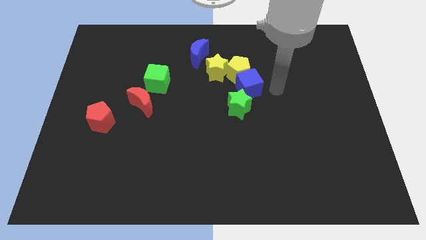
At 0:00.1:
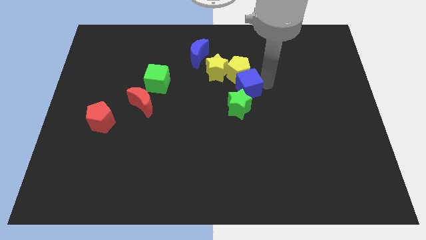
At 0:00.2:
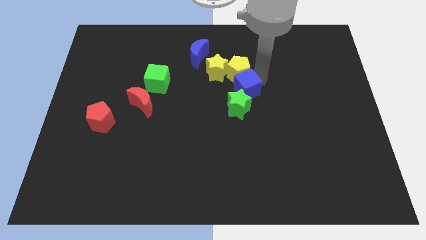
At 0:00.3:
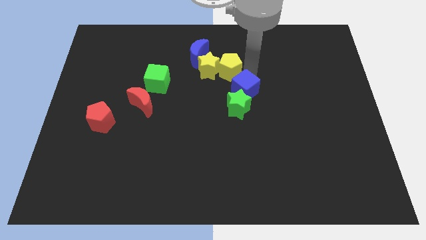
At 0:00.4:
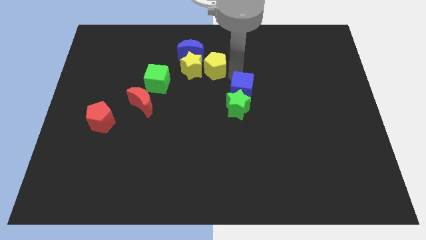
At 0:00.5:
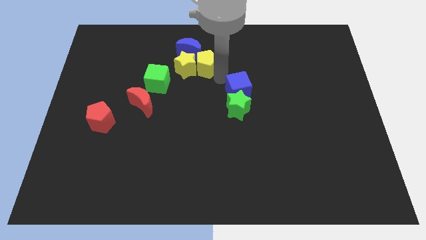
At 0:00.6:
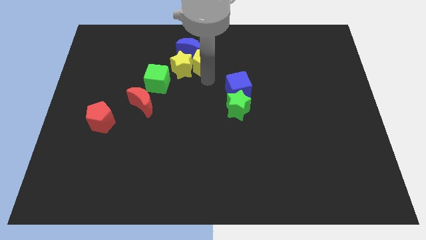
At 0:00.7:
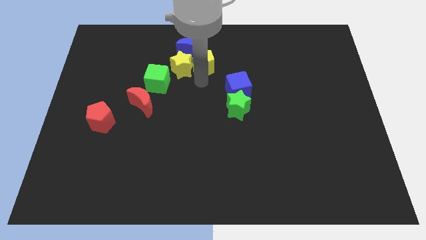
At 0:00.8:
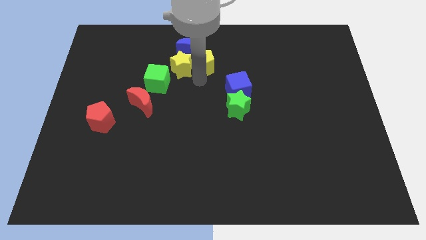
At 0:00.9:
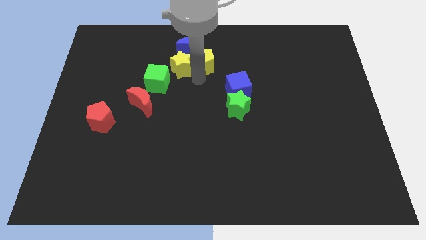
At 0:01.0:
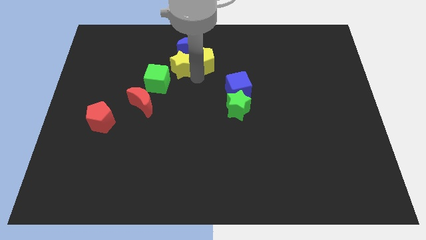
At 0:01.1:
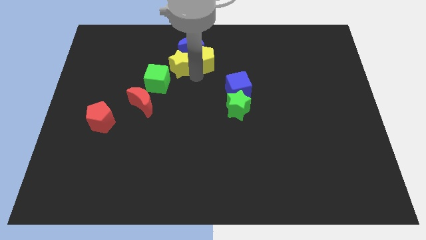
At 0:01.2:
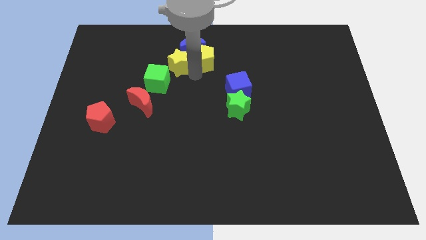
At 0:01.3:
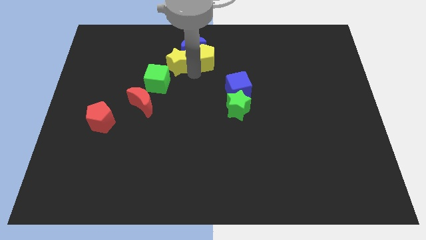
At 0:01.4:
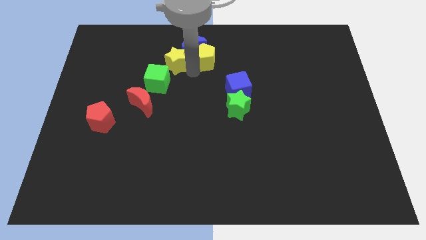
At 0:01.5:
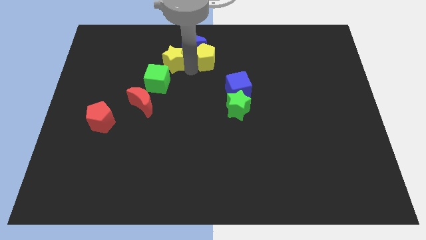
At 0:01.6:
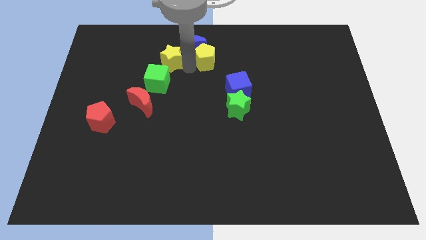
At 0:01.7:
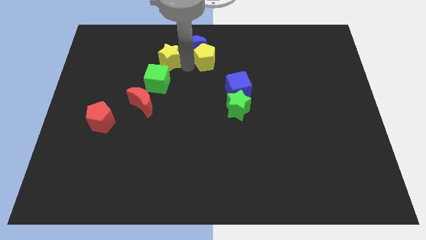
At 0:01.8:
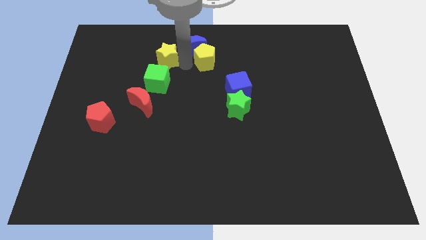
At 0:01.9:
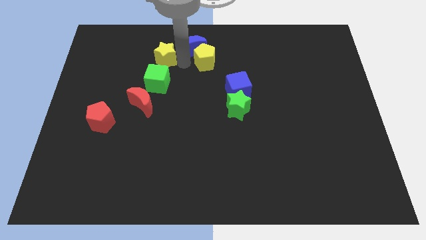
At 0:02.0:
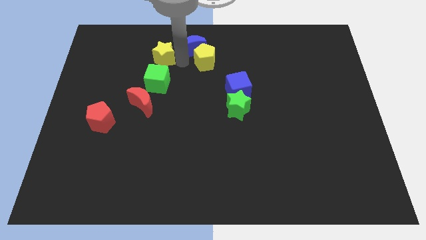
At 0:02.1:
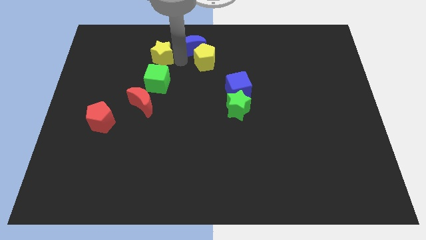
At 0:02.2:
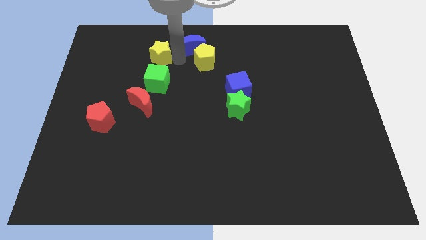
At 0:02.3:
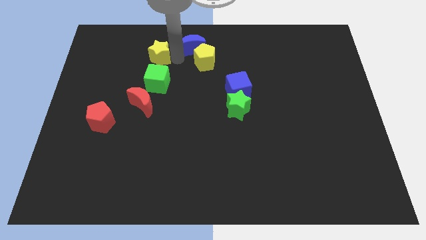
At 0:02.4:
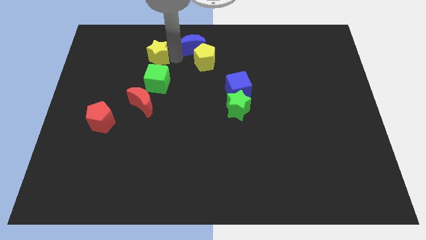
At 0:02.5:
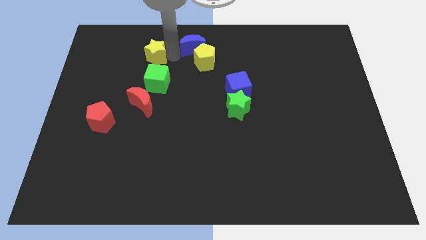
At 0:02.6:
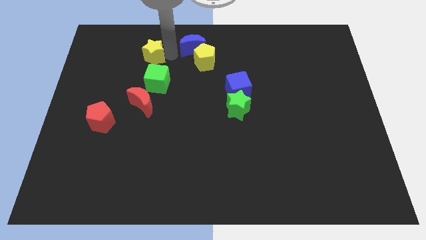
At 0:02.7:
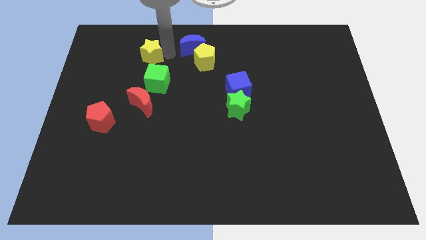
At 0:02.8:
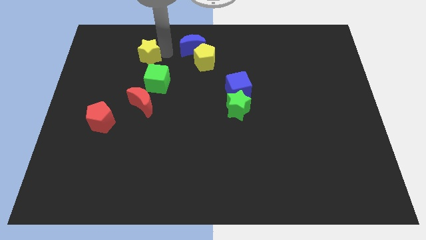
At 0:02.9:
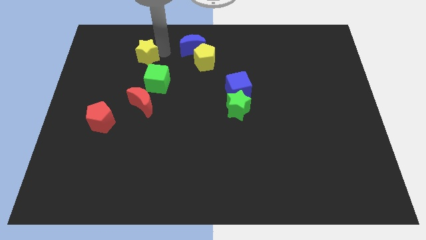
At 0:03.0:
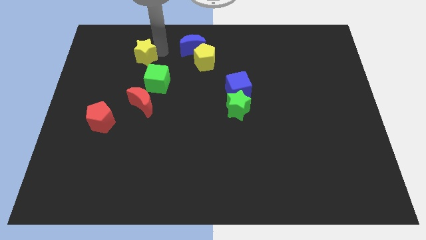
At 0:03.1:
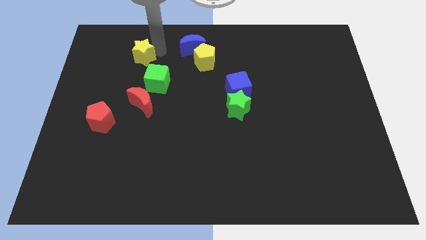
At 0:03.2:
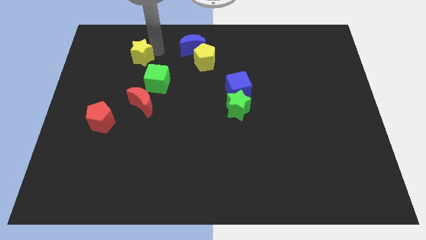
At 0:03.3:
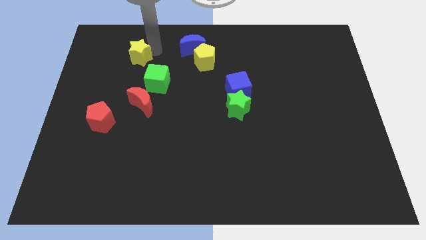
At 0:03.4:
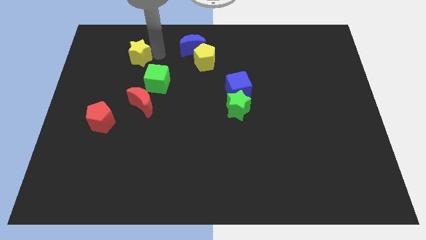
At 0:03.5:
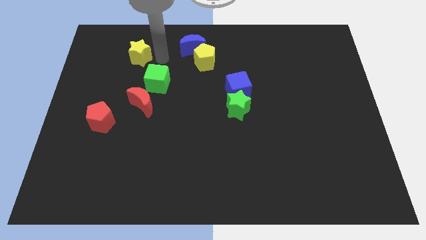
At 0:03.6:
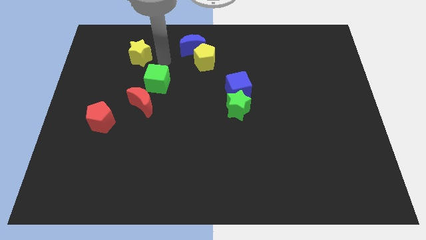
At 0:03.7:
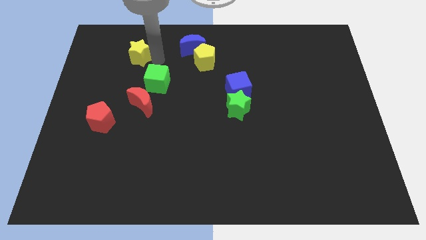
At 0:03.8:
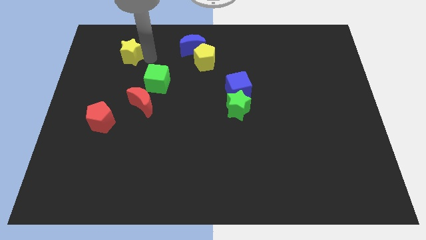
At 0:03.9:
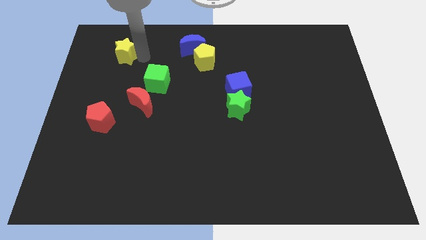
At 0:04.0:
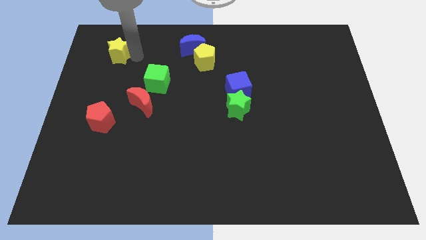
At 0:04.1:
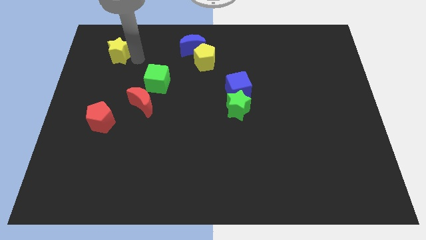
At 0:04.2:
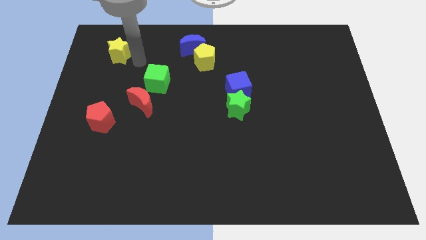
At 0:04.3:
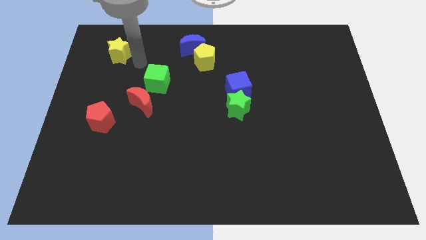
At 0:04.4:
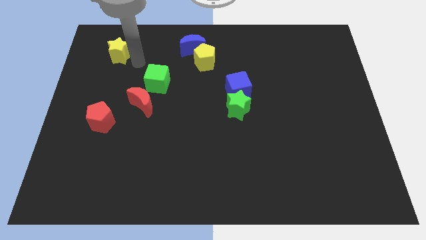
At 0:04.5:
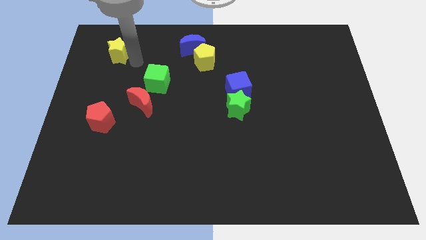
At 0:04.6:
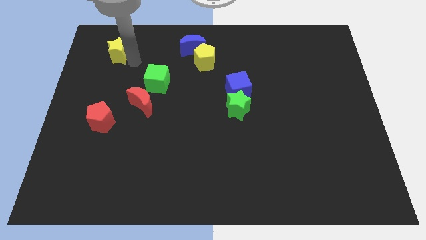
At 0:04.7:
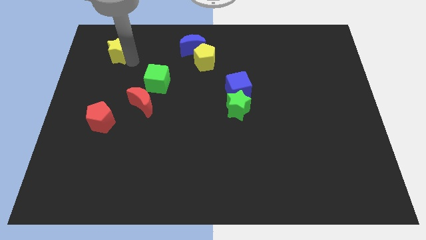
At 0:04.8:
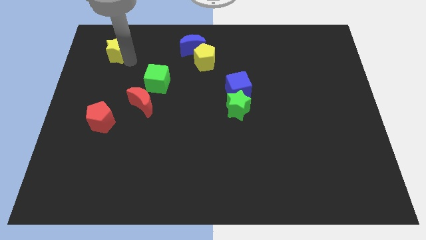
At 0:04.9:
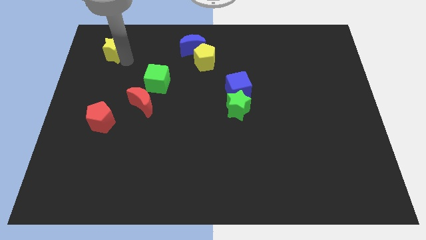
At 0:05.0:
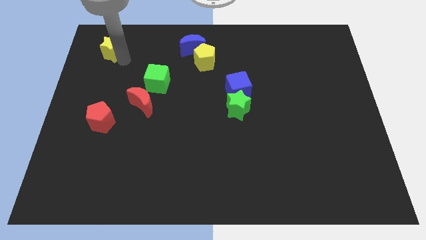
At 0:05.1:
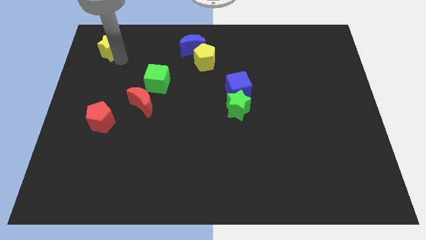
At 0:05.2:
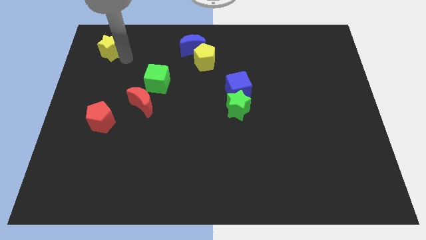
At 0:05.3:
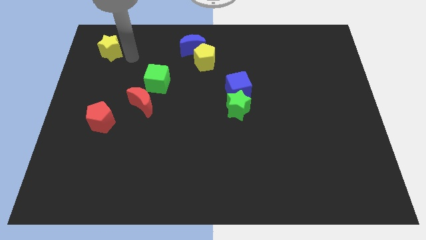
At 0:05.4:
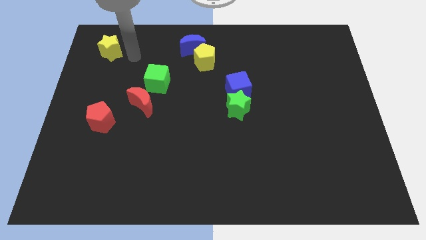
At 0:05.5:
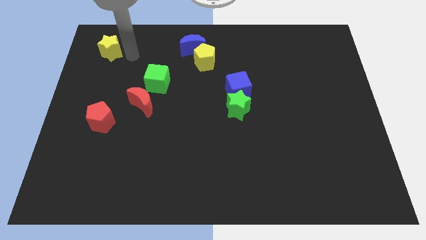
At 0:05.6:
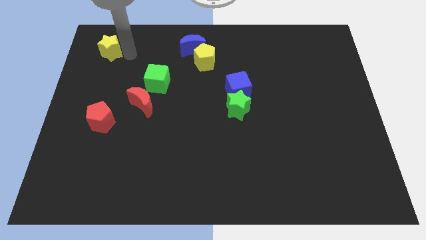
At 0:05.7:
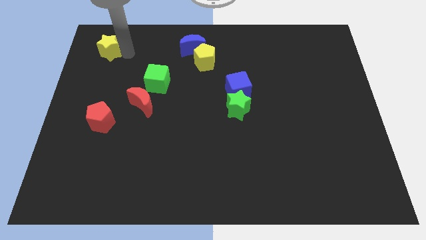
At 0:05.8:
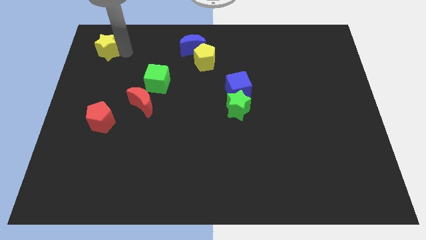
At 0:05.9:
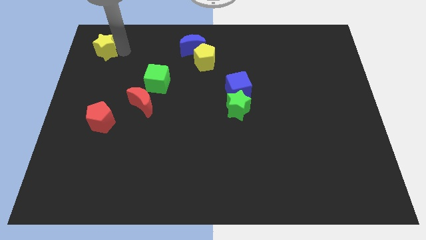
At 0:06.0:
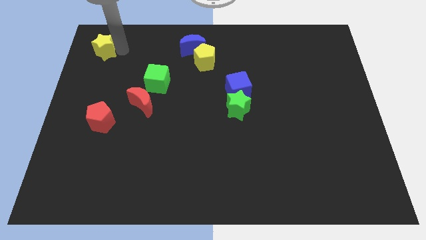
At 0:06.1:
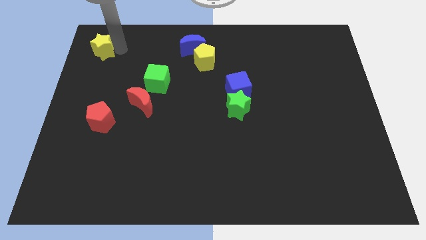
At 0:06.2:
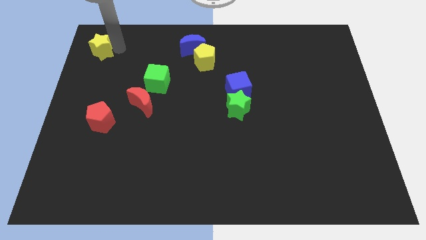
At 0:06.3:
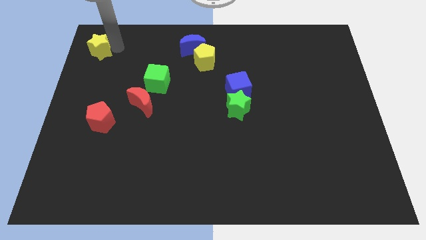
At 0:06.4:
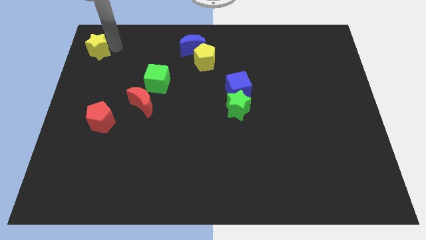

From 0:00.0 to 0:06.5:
push the yellow star to the upper left corner

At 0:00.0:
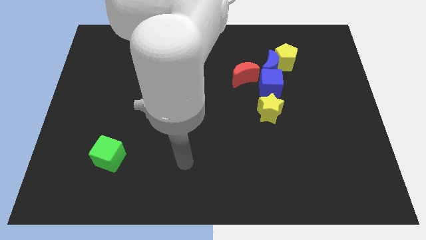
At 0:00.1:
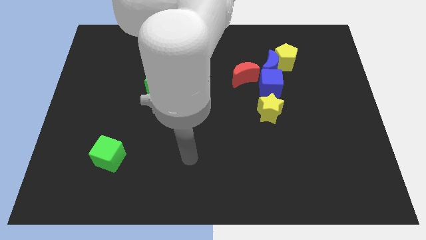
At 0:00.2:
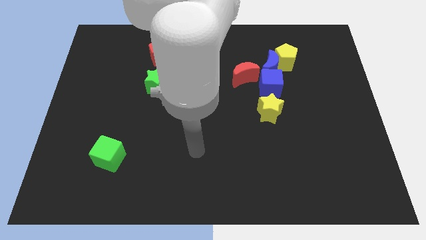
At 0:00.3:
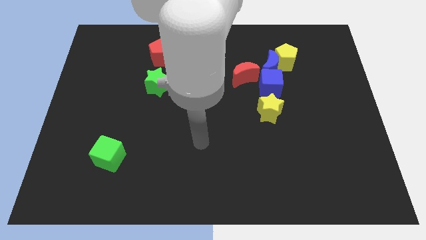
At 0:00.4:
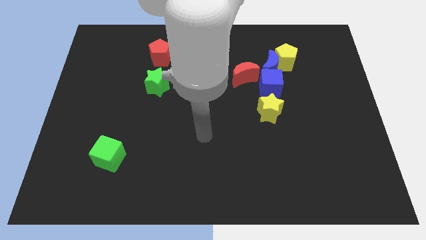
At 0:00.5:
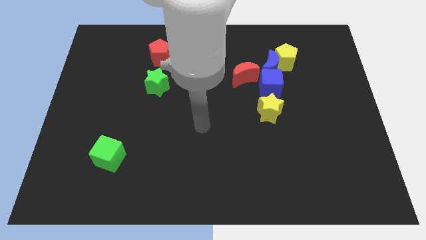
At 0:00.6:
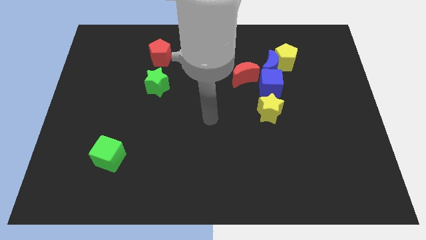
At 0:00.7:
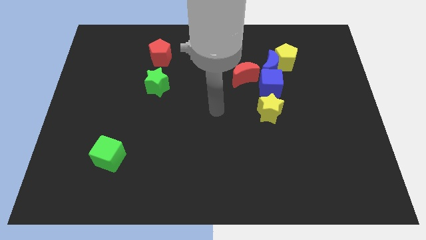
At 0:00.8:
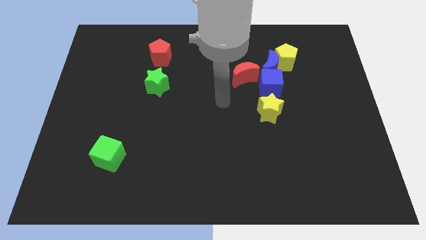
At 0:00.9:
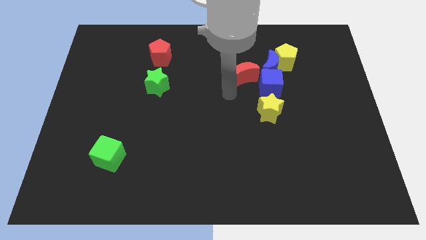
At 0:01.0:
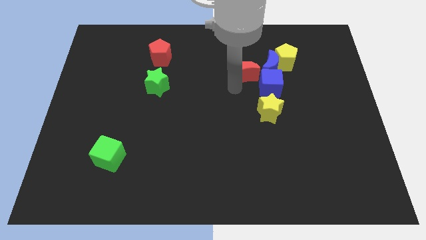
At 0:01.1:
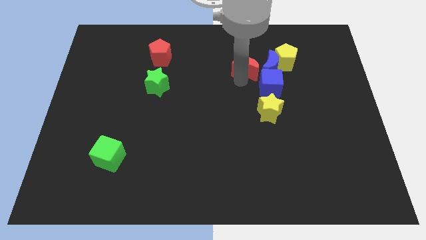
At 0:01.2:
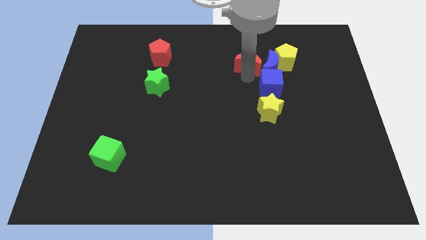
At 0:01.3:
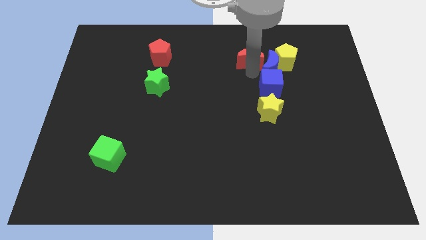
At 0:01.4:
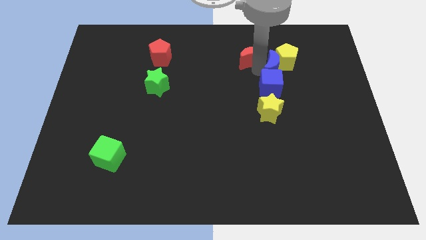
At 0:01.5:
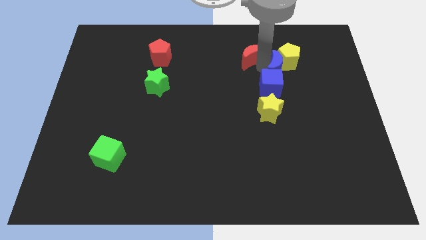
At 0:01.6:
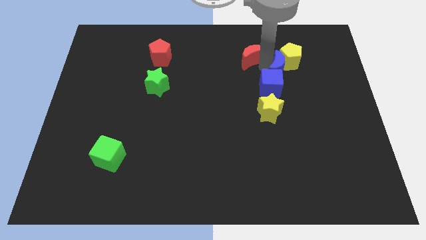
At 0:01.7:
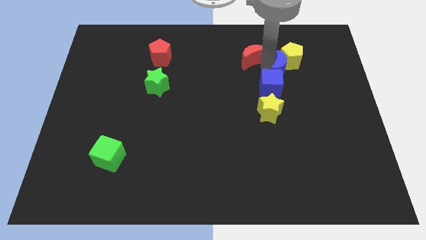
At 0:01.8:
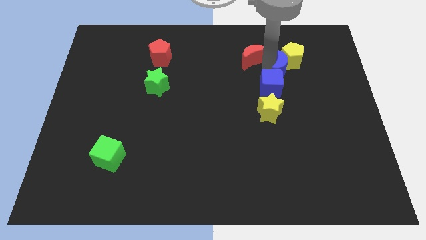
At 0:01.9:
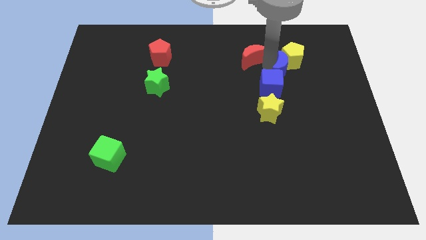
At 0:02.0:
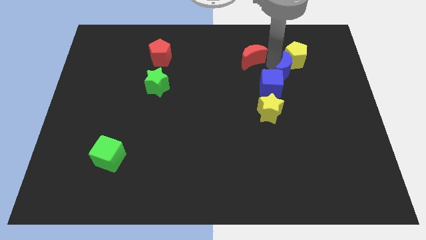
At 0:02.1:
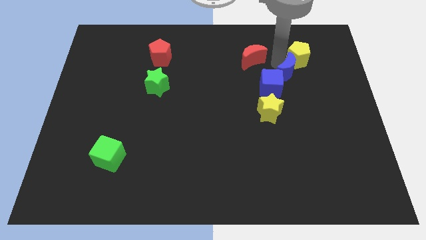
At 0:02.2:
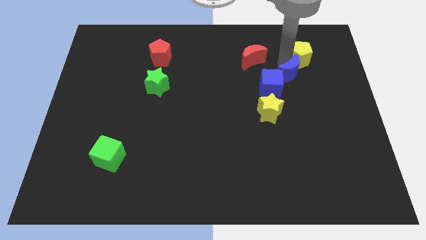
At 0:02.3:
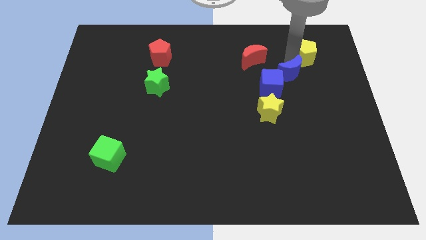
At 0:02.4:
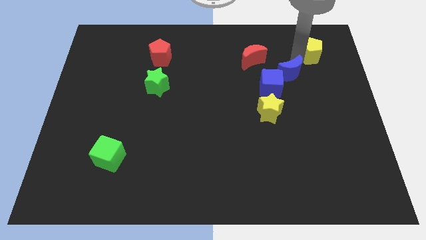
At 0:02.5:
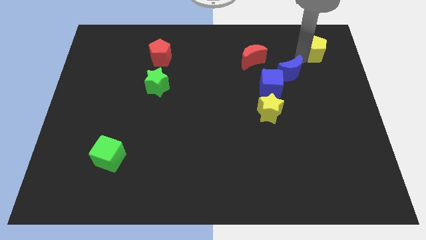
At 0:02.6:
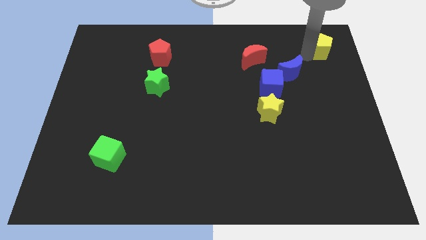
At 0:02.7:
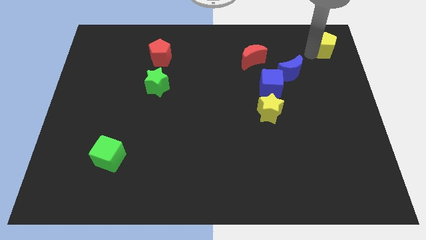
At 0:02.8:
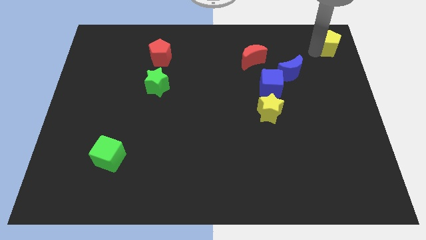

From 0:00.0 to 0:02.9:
push the yellow pentagon to the top right of the board
